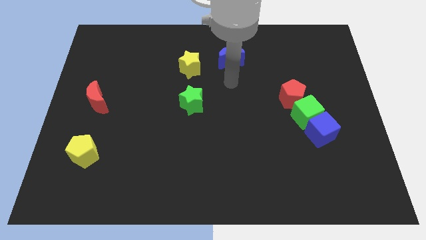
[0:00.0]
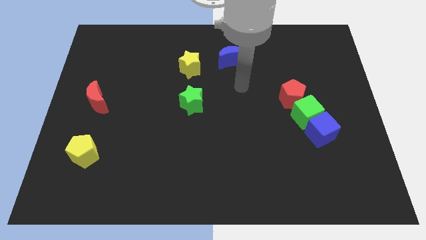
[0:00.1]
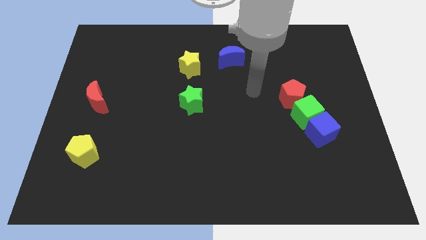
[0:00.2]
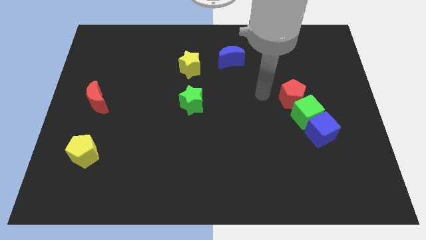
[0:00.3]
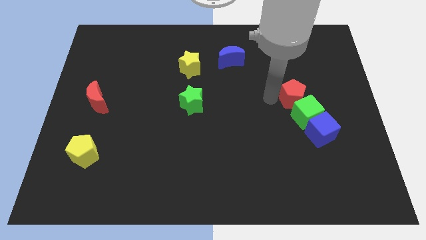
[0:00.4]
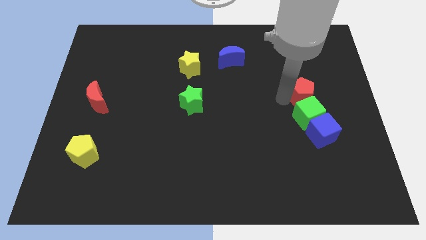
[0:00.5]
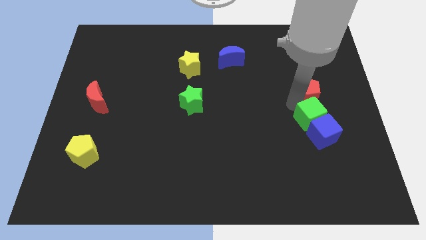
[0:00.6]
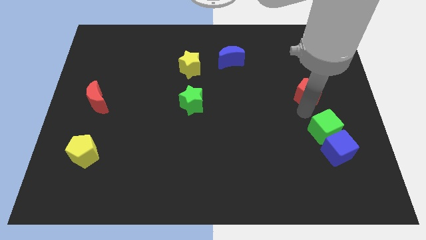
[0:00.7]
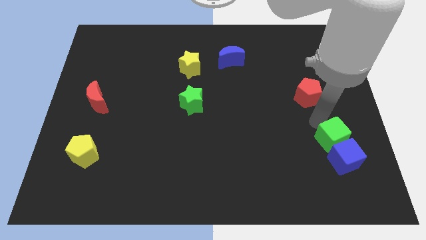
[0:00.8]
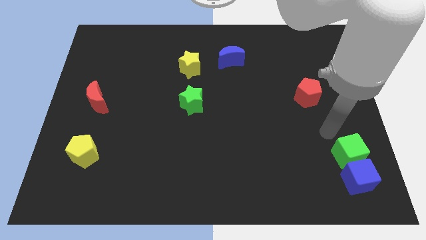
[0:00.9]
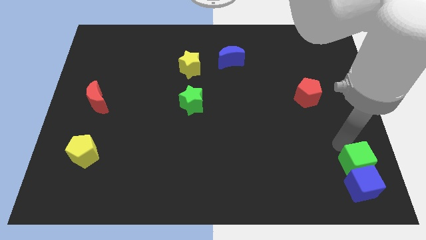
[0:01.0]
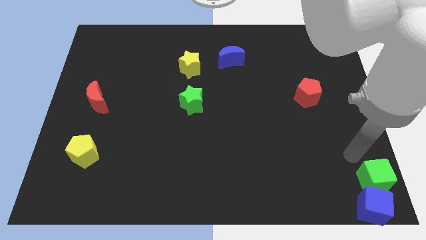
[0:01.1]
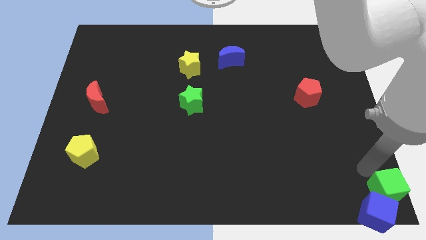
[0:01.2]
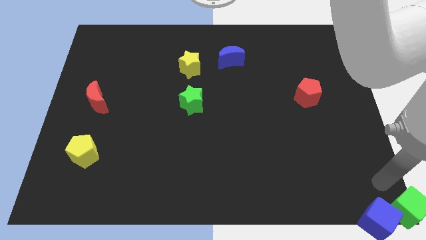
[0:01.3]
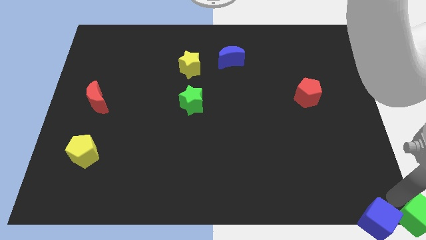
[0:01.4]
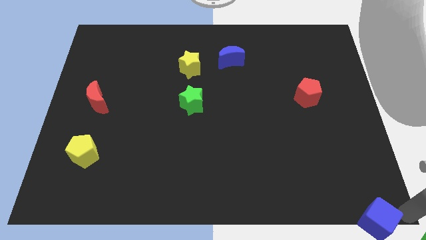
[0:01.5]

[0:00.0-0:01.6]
pull the blue cube apart from the green cube

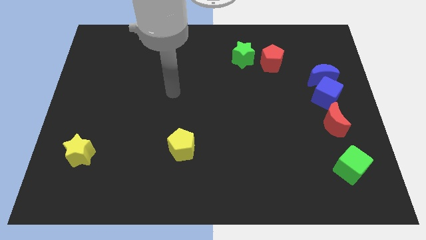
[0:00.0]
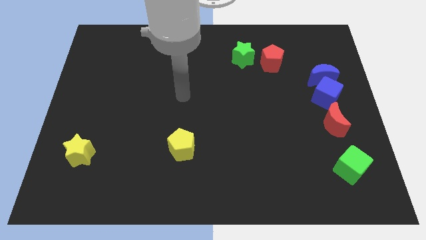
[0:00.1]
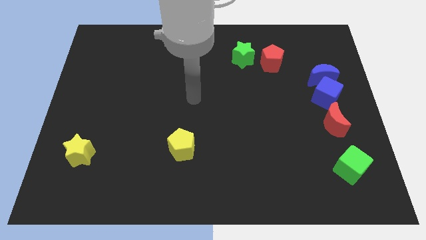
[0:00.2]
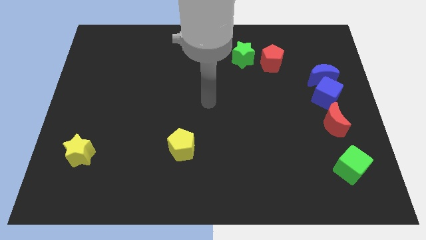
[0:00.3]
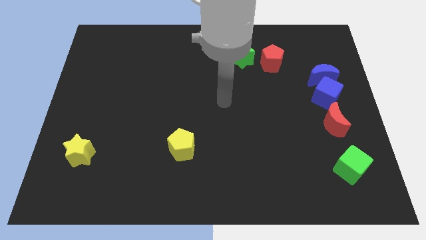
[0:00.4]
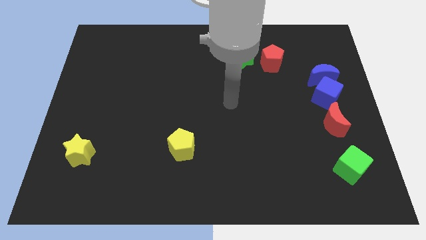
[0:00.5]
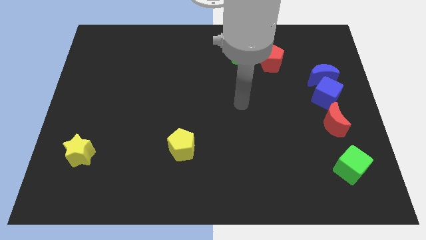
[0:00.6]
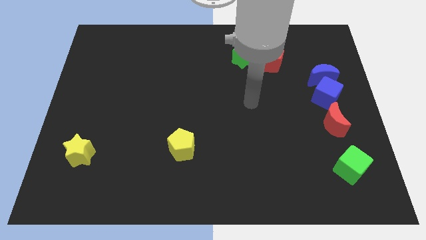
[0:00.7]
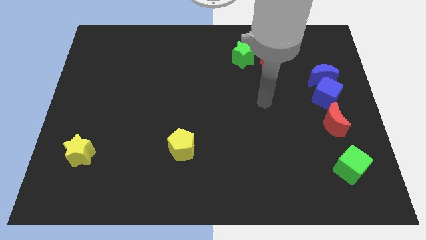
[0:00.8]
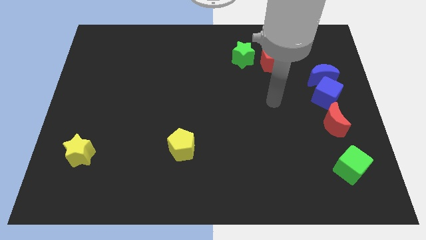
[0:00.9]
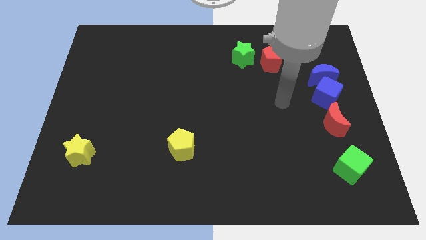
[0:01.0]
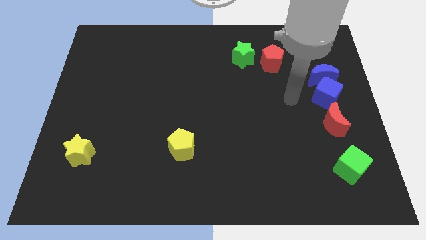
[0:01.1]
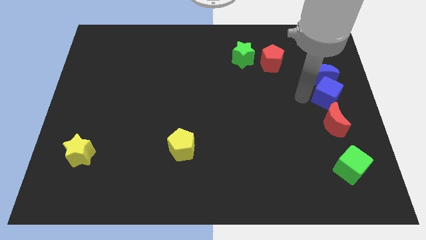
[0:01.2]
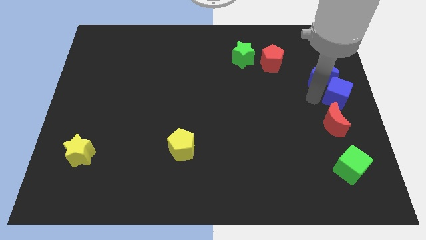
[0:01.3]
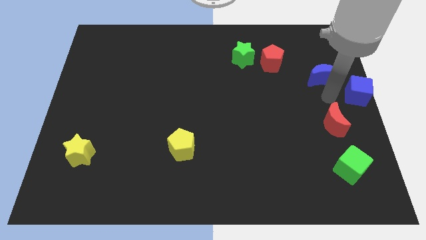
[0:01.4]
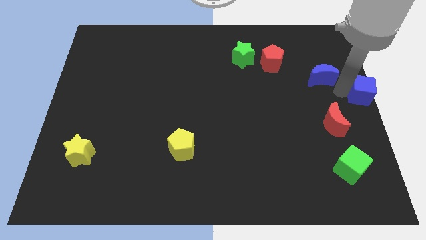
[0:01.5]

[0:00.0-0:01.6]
separate the blue moon from the blue cube

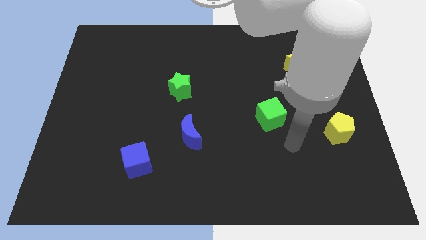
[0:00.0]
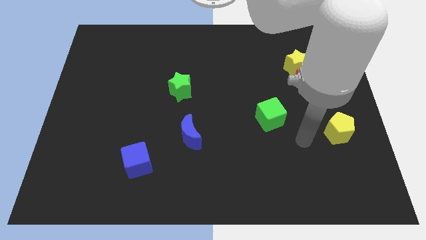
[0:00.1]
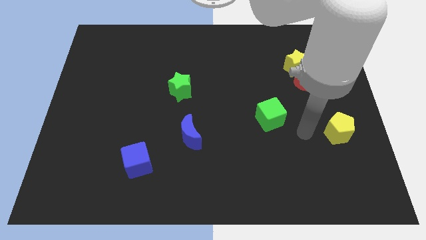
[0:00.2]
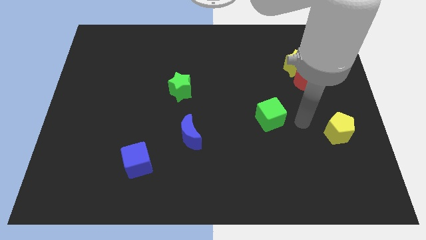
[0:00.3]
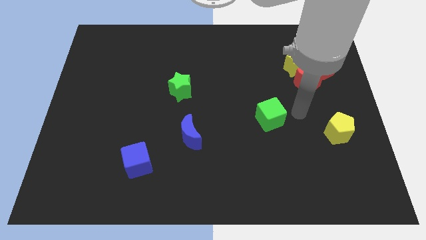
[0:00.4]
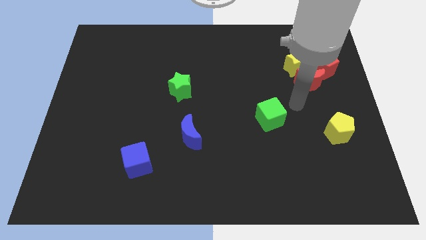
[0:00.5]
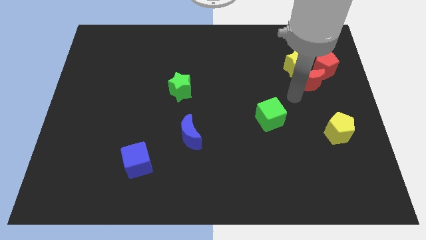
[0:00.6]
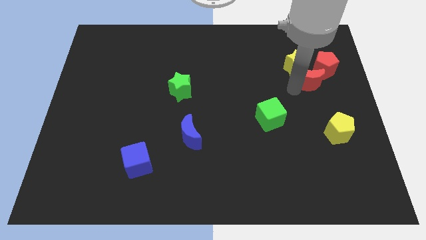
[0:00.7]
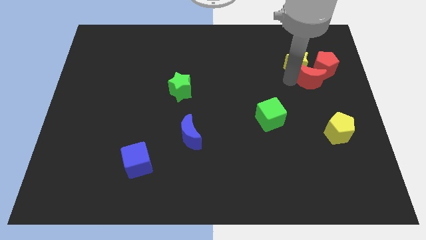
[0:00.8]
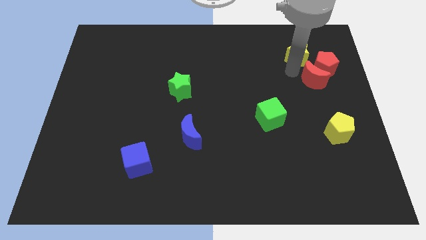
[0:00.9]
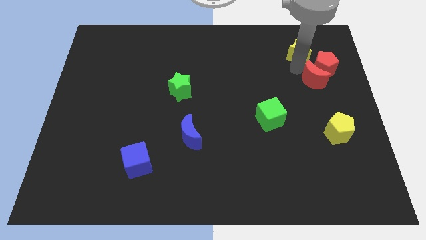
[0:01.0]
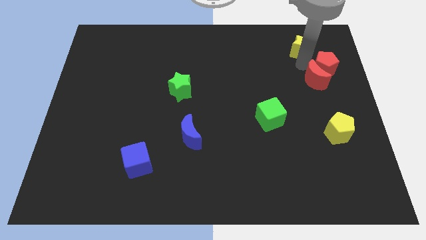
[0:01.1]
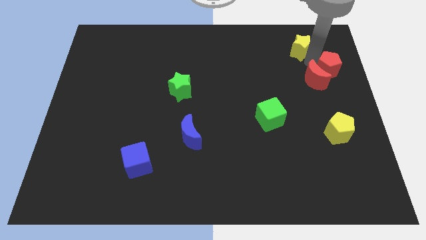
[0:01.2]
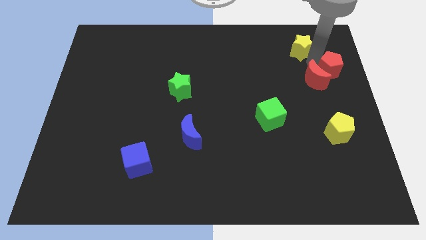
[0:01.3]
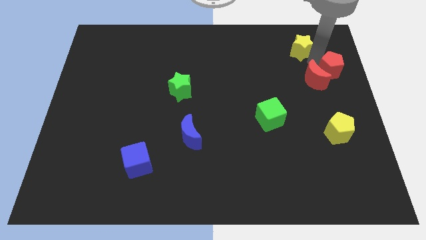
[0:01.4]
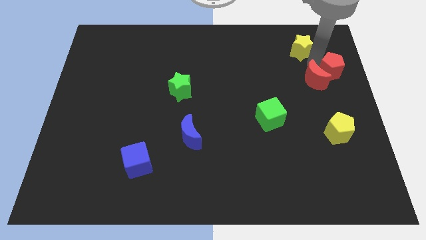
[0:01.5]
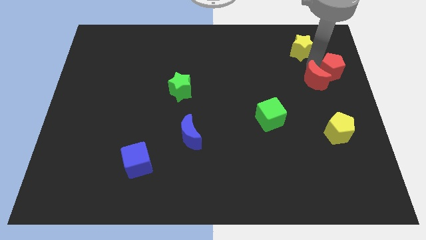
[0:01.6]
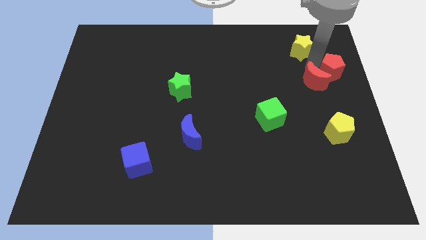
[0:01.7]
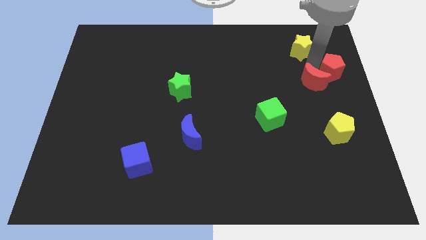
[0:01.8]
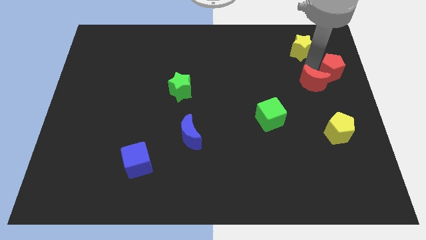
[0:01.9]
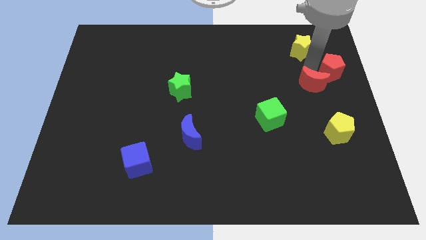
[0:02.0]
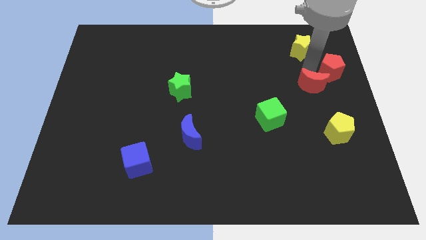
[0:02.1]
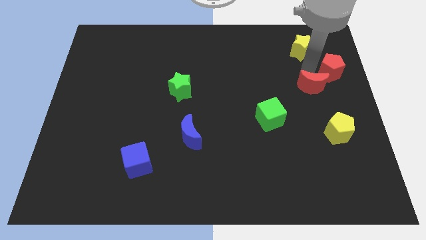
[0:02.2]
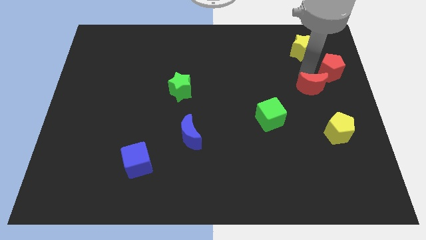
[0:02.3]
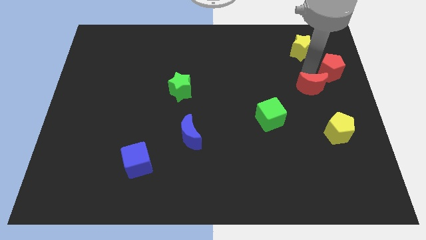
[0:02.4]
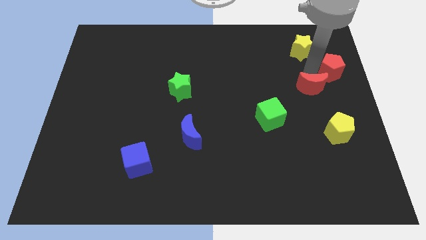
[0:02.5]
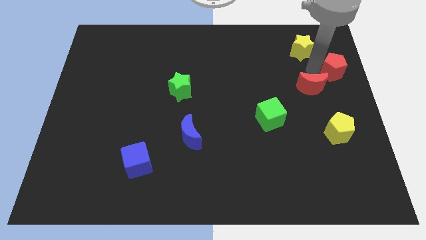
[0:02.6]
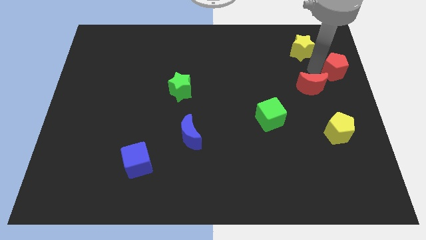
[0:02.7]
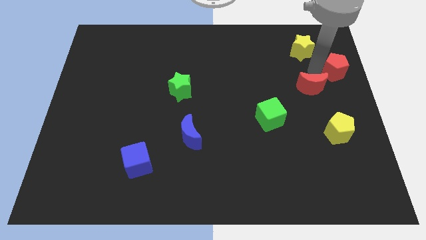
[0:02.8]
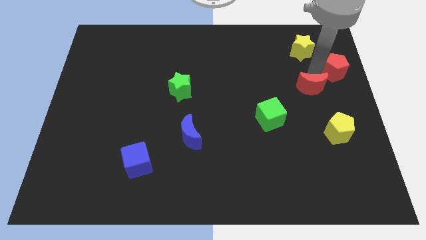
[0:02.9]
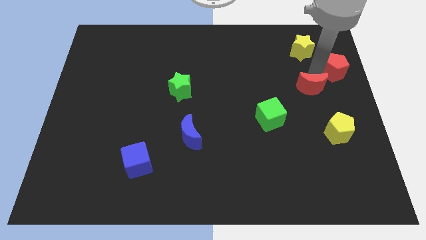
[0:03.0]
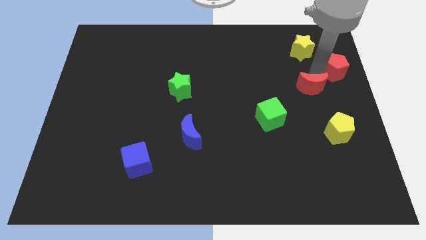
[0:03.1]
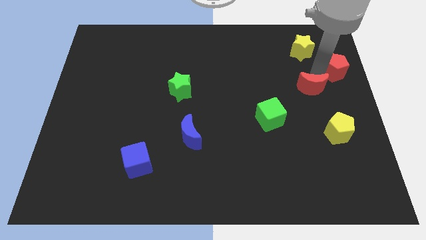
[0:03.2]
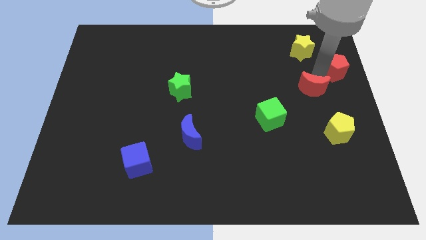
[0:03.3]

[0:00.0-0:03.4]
pull the red moon apart from the yellow star and red pentagon

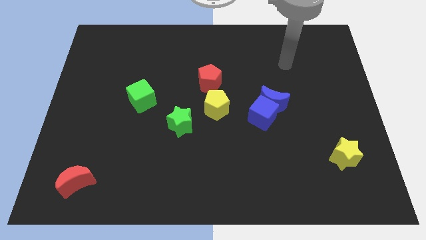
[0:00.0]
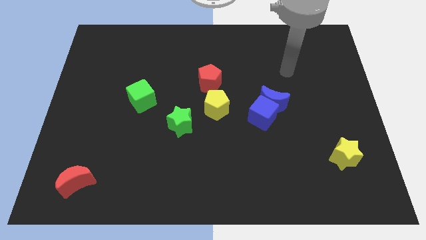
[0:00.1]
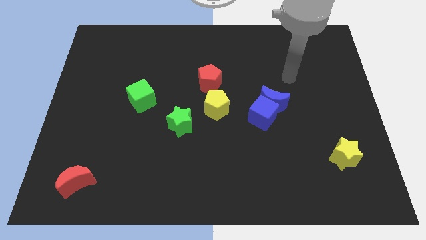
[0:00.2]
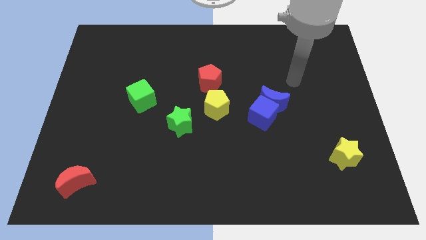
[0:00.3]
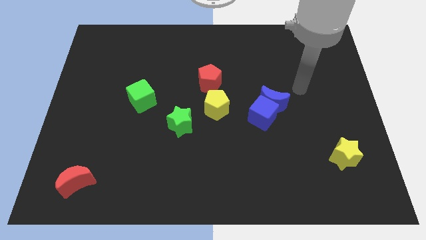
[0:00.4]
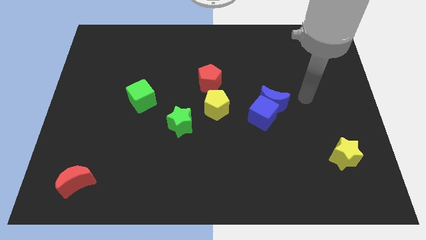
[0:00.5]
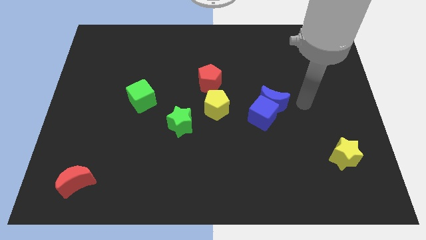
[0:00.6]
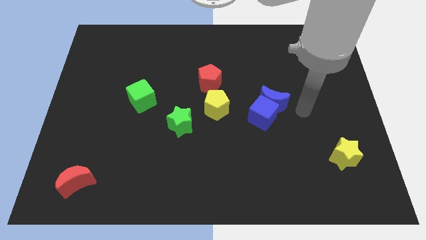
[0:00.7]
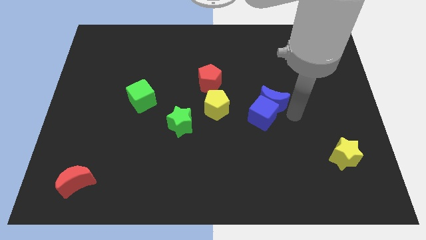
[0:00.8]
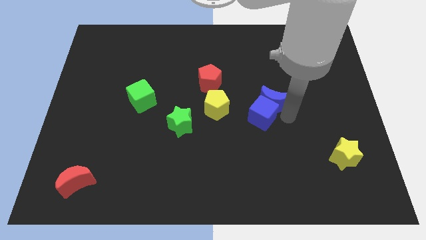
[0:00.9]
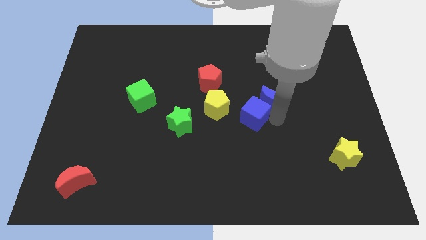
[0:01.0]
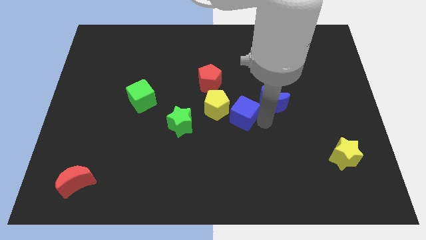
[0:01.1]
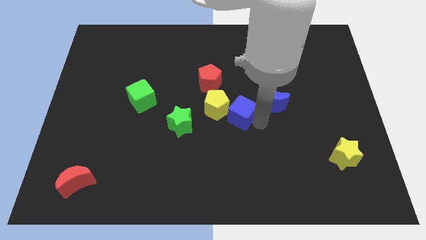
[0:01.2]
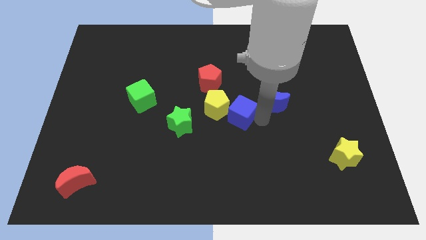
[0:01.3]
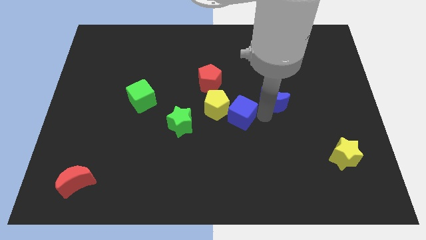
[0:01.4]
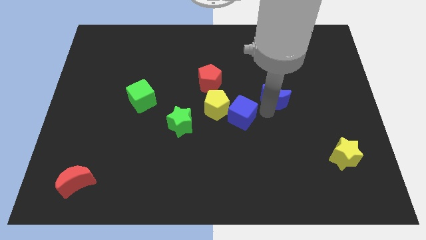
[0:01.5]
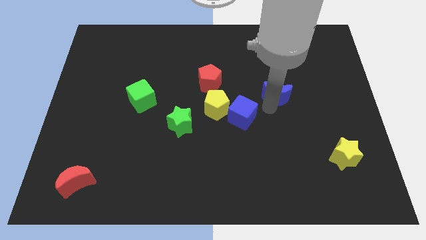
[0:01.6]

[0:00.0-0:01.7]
pull the blue moon apart from the blue cube

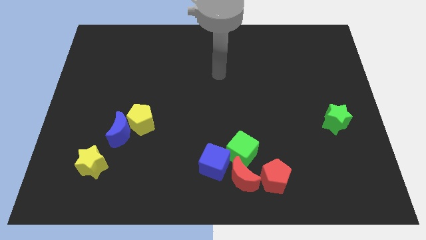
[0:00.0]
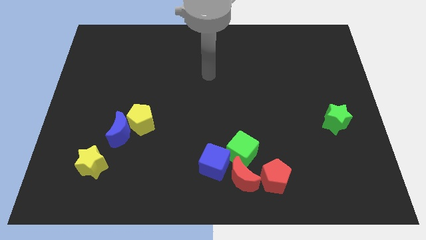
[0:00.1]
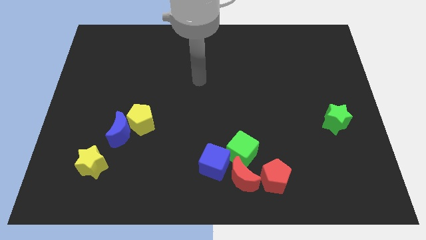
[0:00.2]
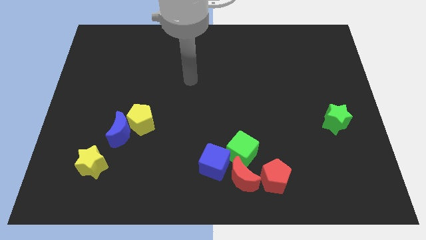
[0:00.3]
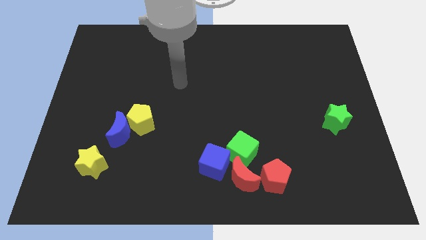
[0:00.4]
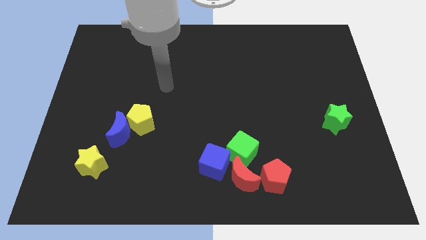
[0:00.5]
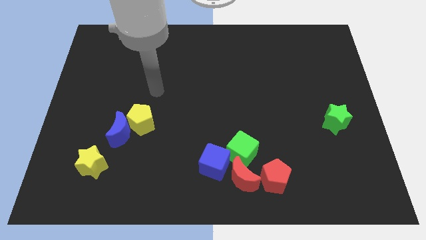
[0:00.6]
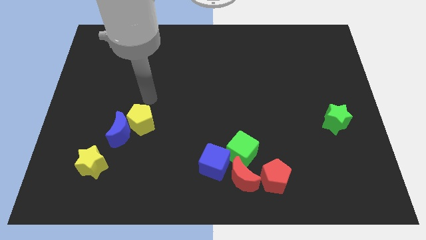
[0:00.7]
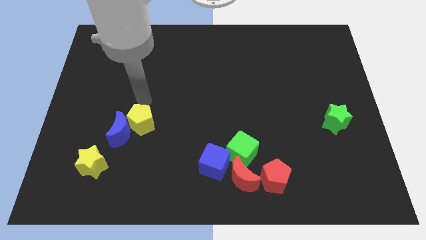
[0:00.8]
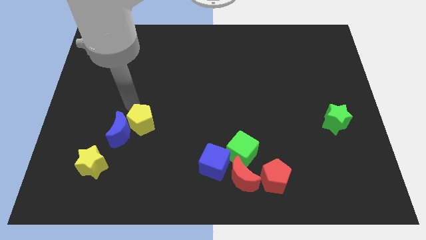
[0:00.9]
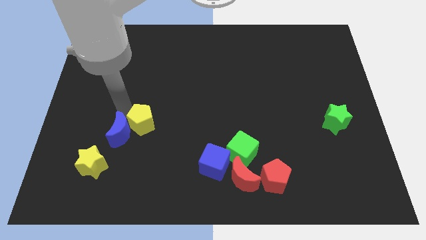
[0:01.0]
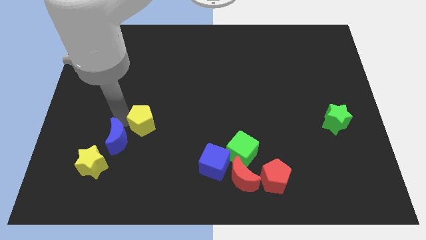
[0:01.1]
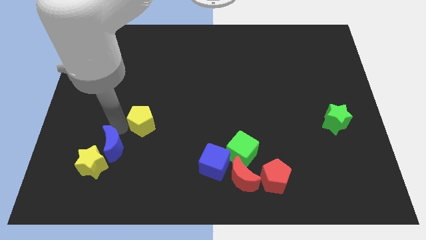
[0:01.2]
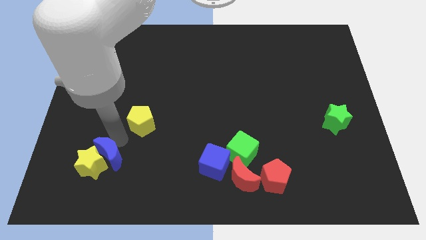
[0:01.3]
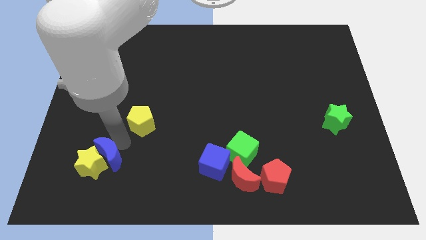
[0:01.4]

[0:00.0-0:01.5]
separate the yellow pentagon from the blue moon
